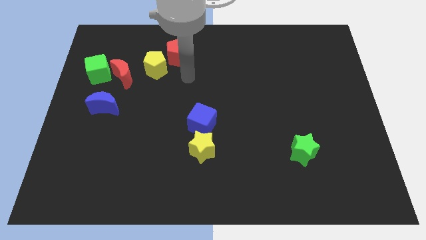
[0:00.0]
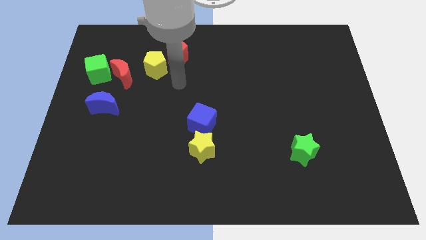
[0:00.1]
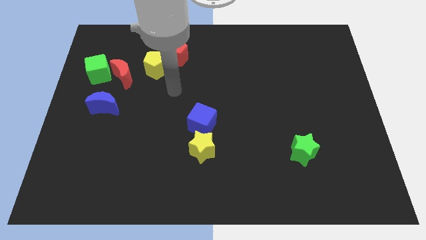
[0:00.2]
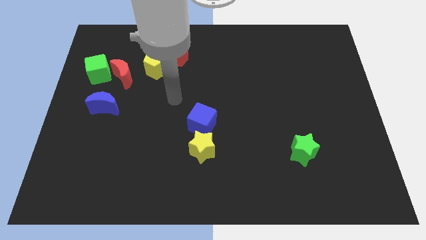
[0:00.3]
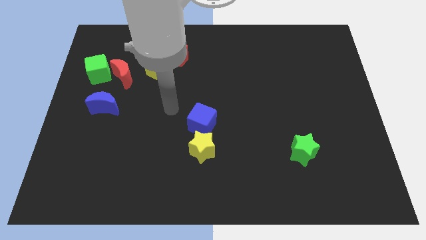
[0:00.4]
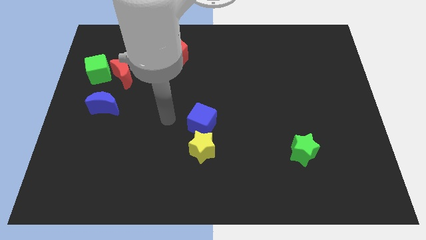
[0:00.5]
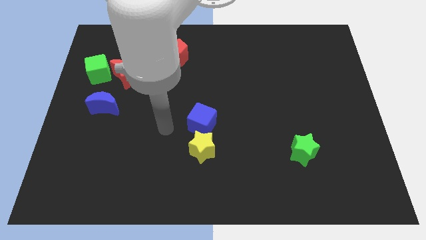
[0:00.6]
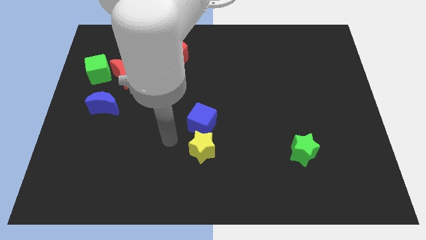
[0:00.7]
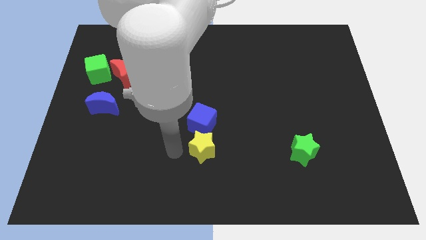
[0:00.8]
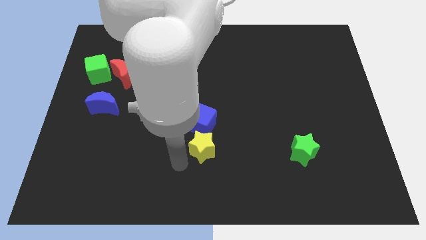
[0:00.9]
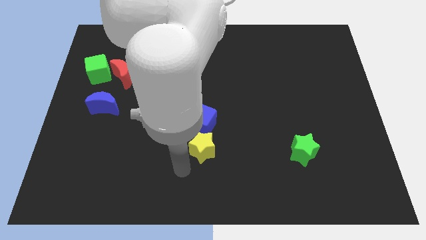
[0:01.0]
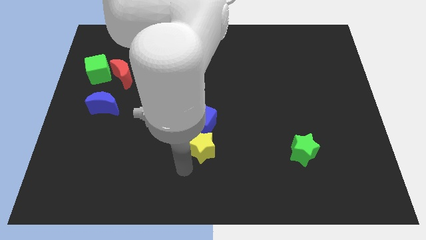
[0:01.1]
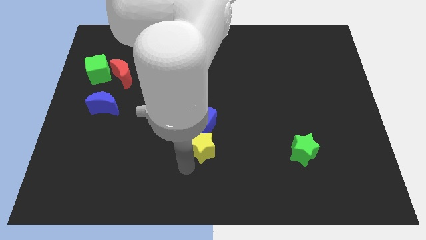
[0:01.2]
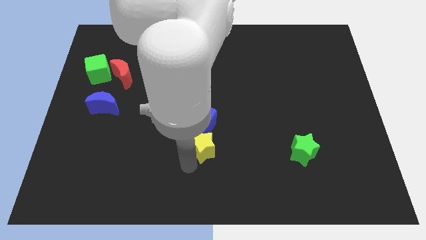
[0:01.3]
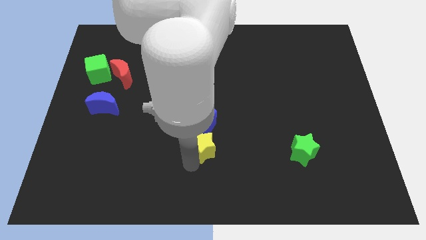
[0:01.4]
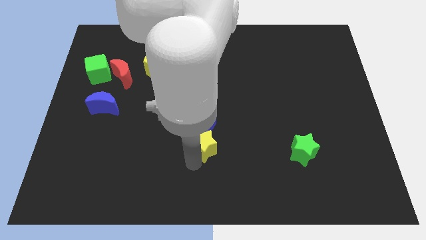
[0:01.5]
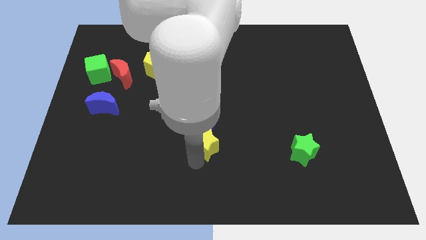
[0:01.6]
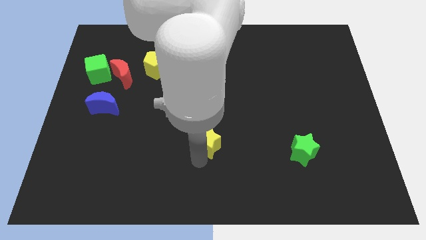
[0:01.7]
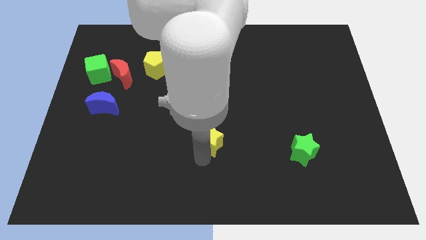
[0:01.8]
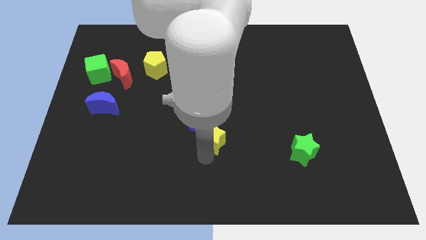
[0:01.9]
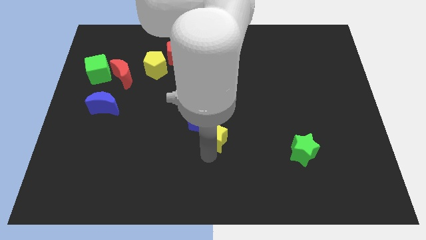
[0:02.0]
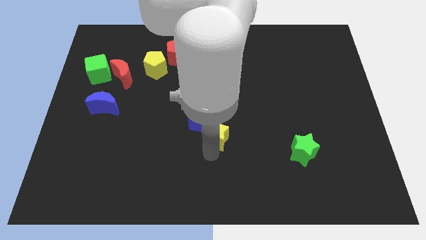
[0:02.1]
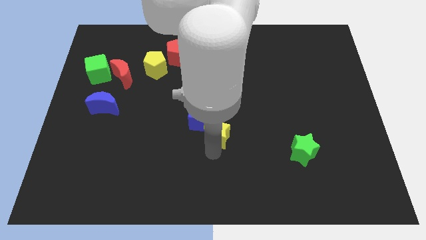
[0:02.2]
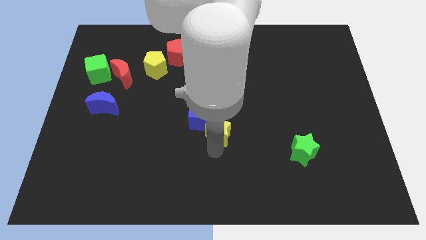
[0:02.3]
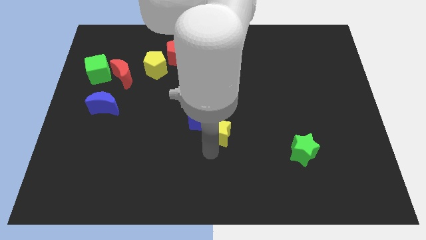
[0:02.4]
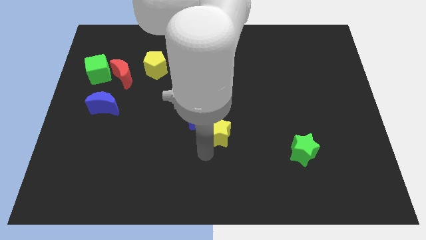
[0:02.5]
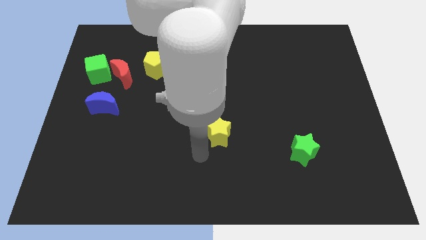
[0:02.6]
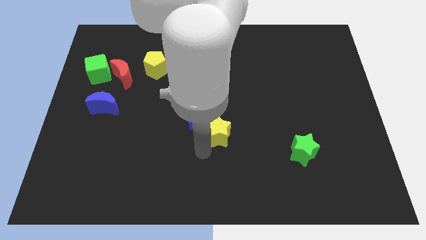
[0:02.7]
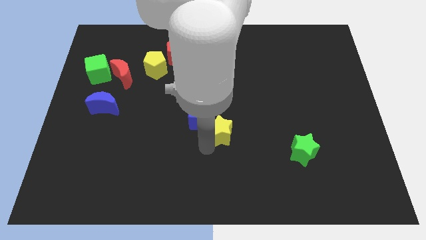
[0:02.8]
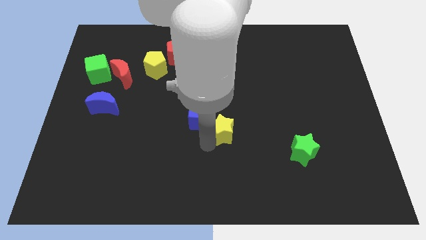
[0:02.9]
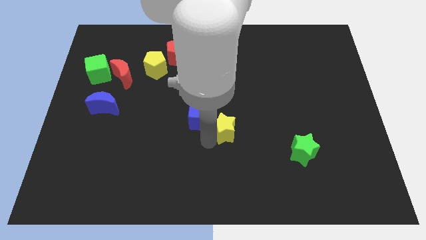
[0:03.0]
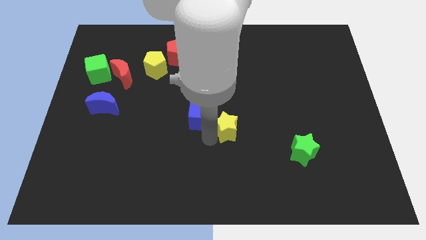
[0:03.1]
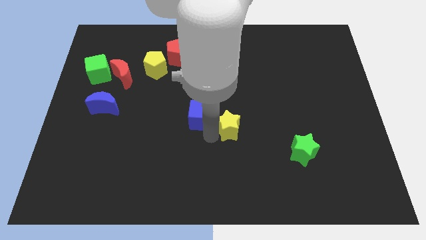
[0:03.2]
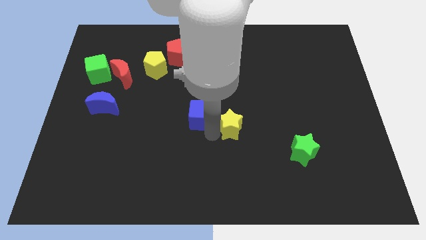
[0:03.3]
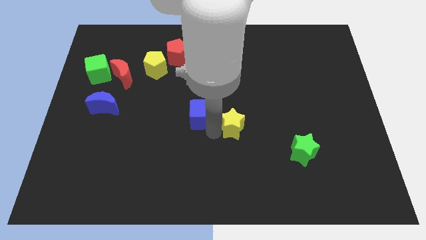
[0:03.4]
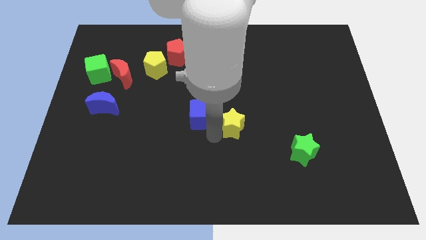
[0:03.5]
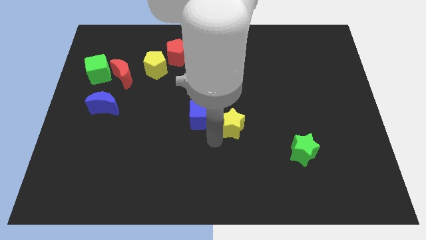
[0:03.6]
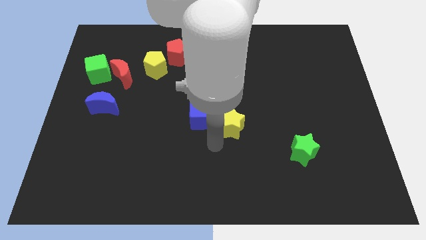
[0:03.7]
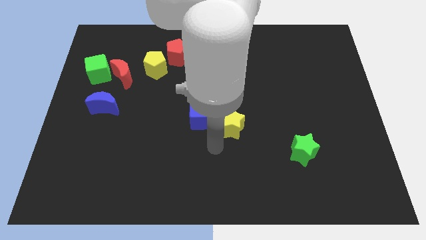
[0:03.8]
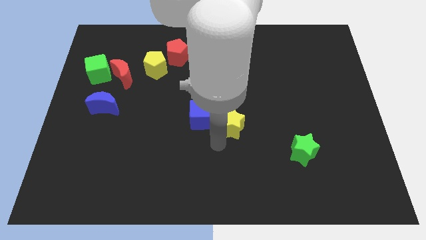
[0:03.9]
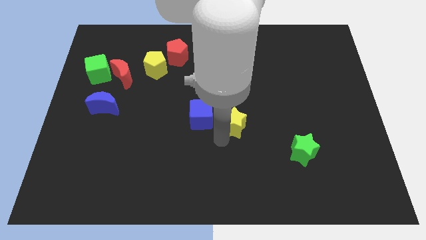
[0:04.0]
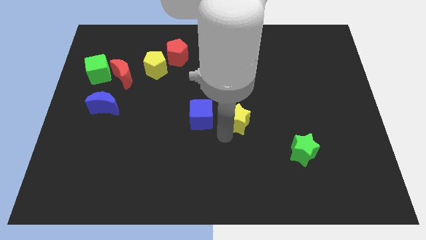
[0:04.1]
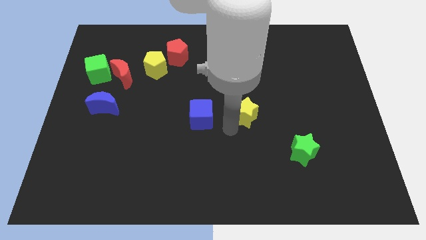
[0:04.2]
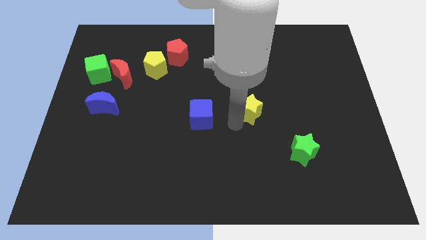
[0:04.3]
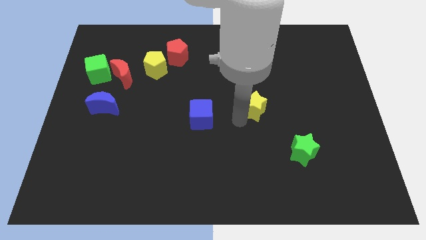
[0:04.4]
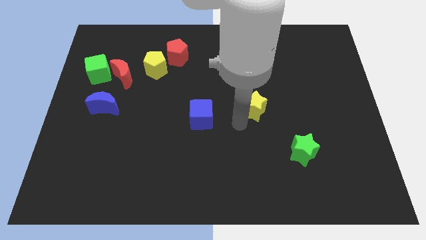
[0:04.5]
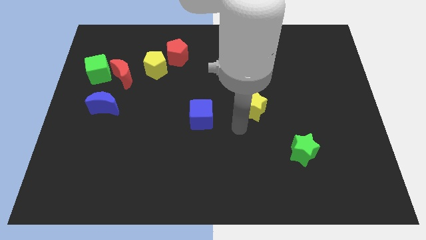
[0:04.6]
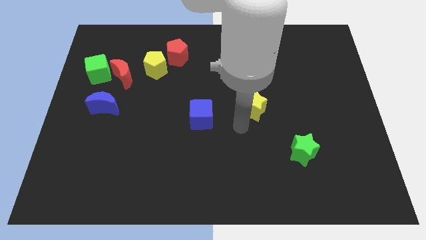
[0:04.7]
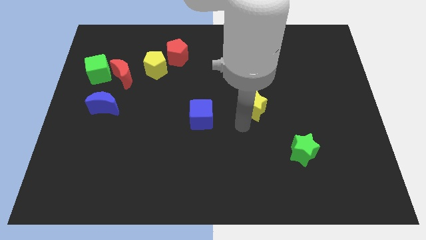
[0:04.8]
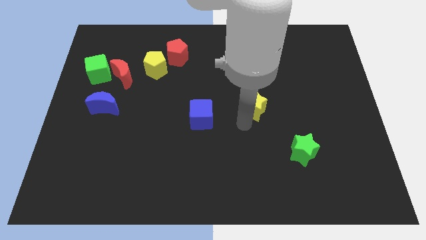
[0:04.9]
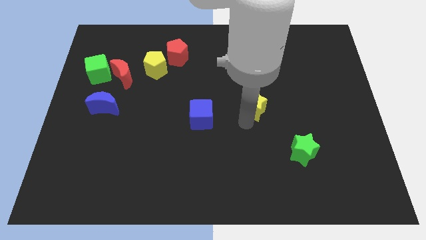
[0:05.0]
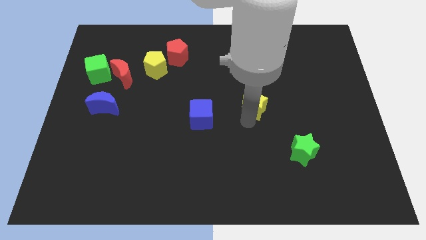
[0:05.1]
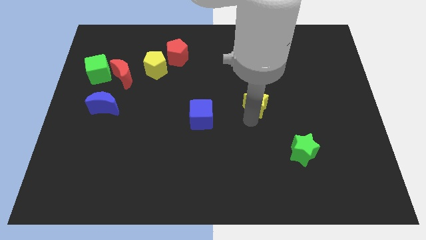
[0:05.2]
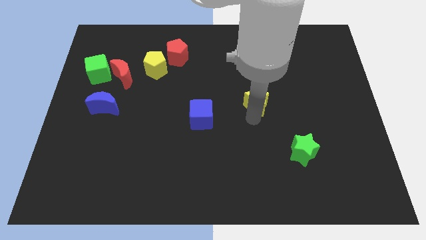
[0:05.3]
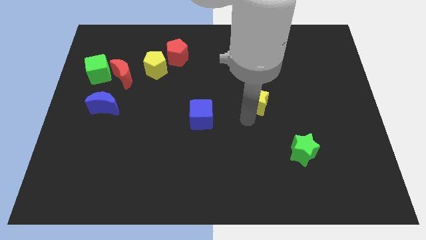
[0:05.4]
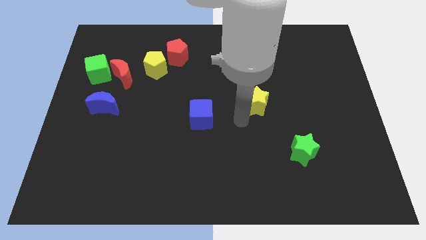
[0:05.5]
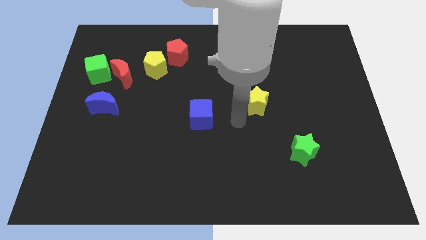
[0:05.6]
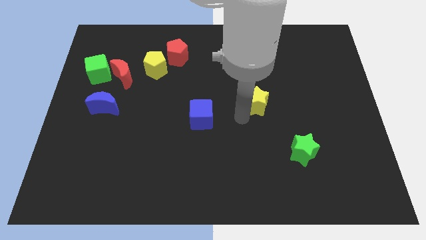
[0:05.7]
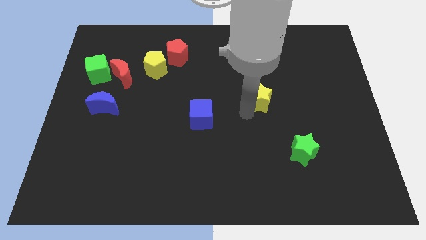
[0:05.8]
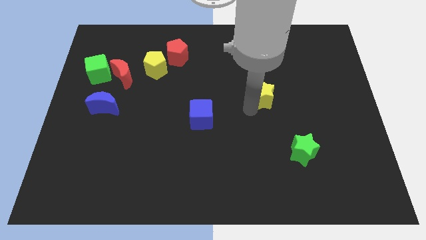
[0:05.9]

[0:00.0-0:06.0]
push the yellow star upwards and right diagonally

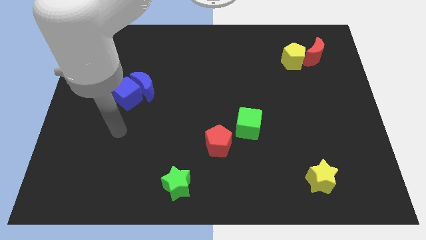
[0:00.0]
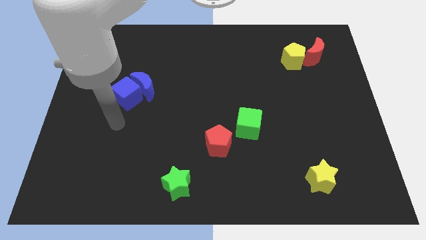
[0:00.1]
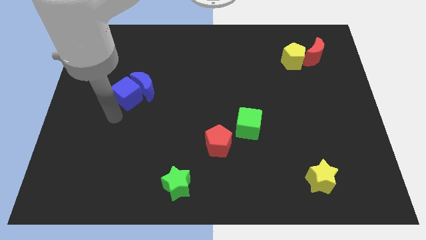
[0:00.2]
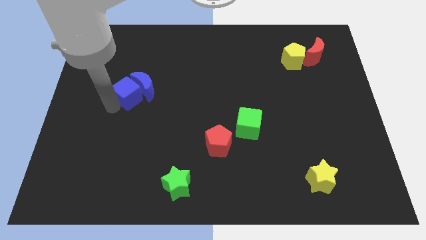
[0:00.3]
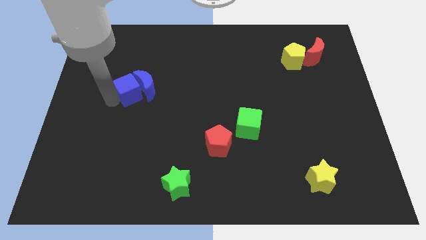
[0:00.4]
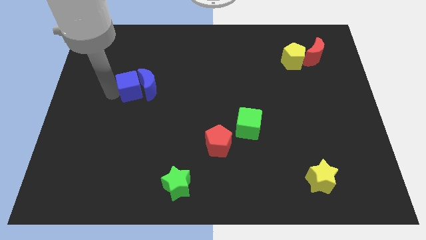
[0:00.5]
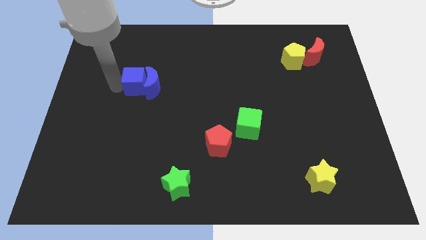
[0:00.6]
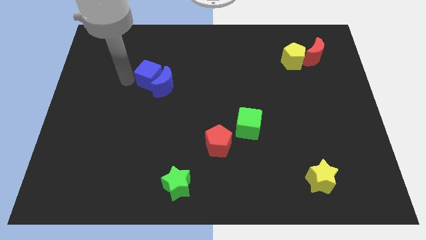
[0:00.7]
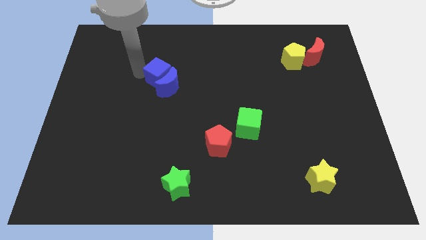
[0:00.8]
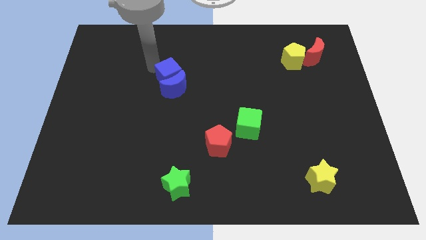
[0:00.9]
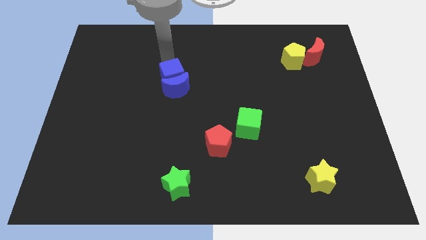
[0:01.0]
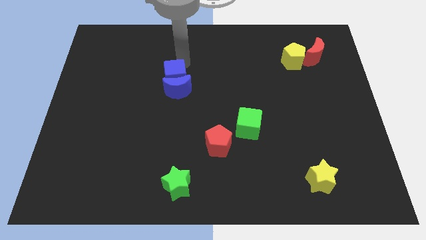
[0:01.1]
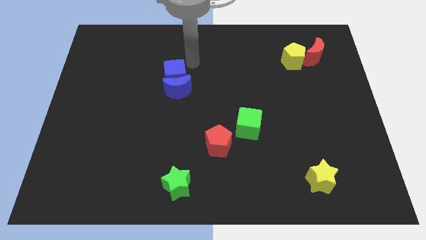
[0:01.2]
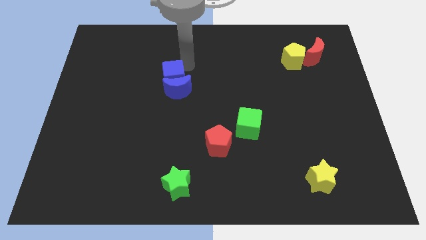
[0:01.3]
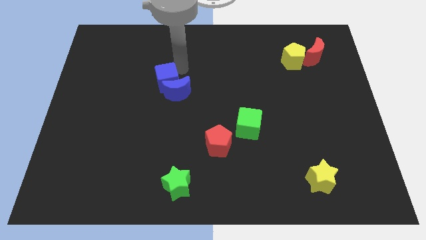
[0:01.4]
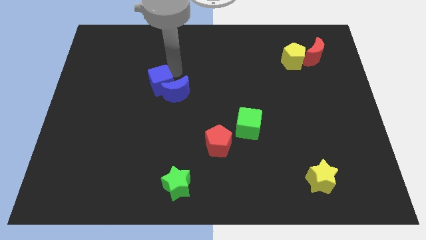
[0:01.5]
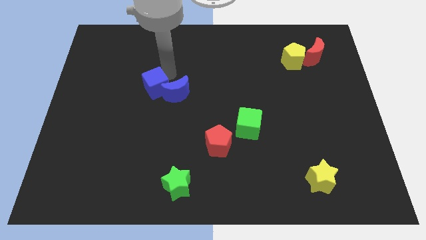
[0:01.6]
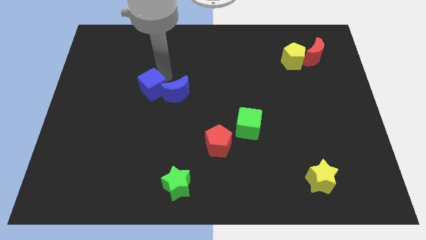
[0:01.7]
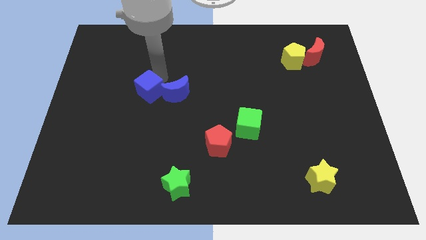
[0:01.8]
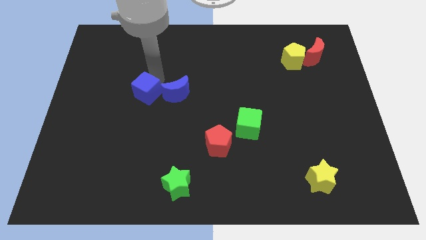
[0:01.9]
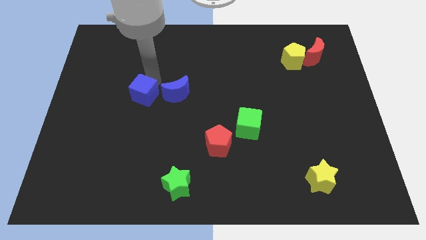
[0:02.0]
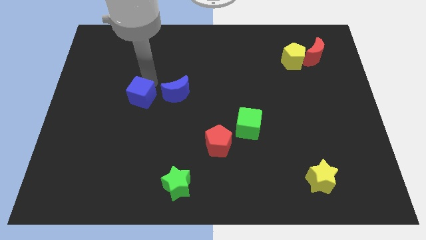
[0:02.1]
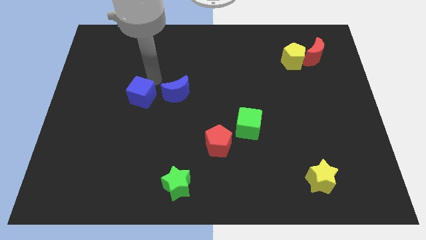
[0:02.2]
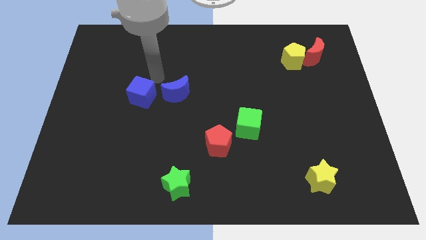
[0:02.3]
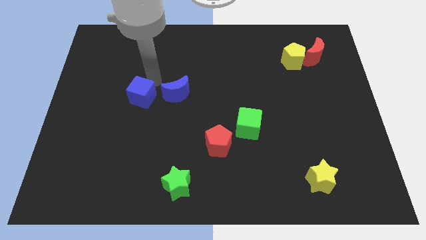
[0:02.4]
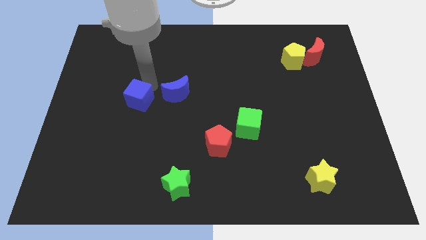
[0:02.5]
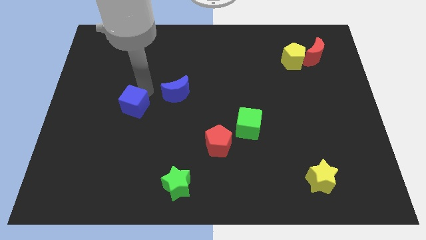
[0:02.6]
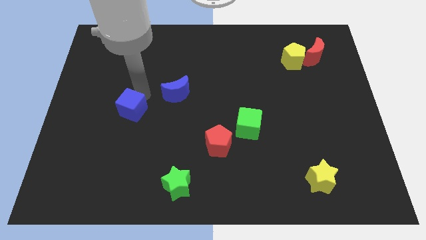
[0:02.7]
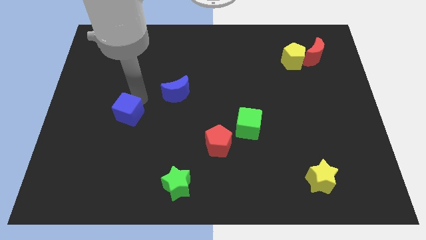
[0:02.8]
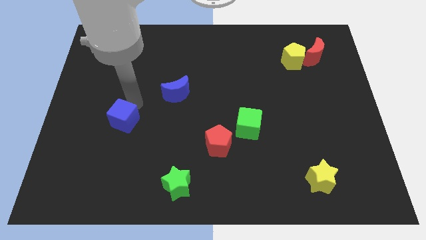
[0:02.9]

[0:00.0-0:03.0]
push the blue cube a little down
